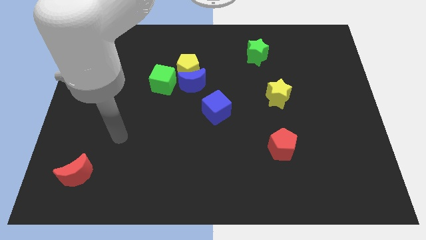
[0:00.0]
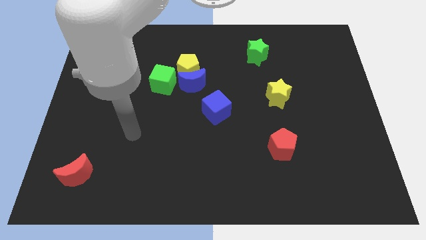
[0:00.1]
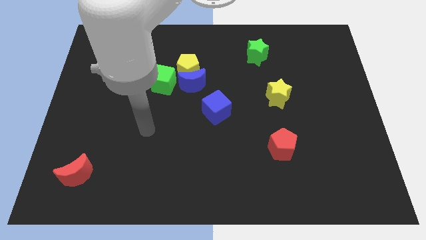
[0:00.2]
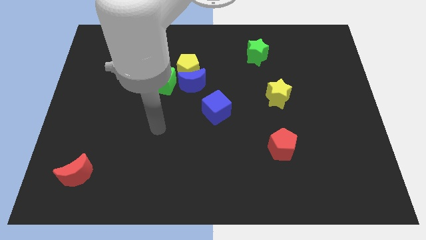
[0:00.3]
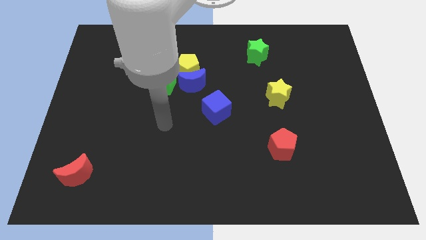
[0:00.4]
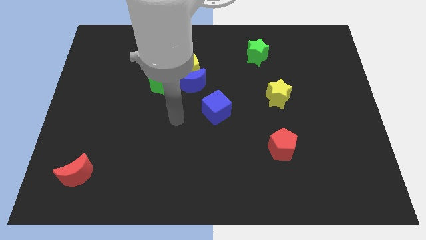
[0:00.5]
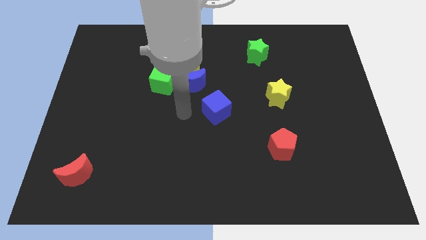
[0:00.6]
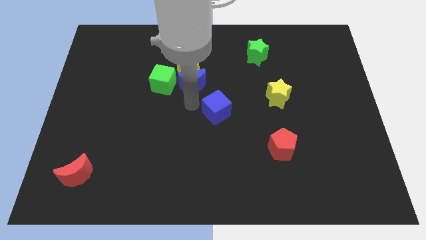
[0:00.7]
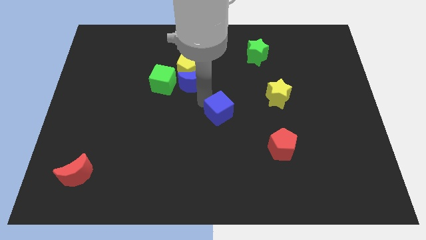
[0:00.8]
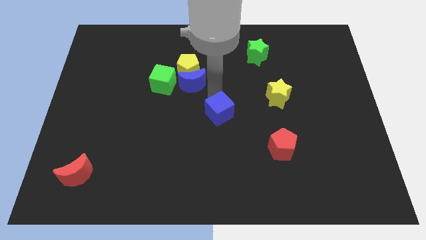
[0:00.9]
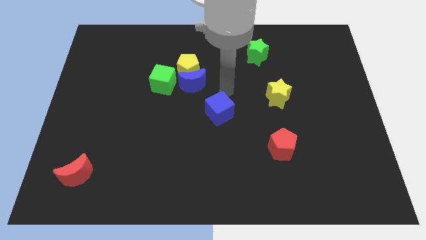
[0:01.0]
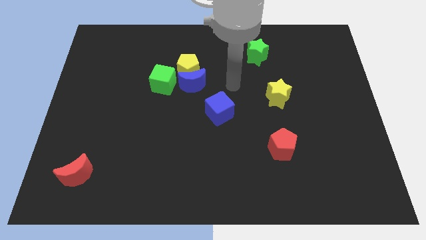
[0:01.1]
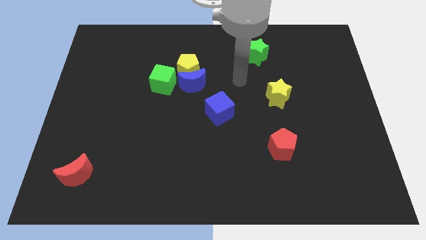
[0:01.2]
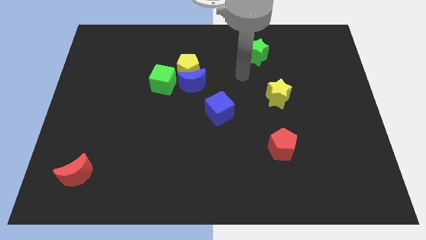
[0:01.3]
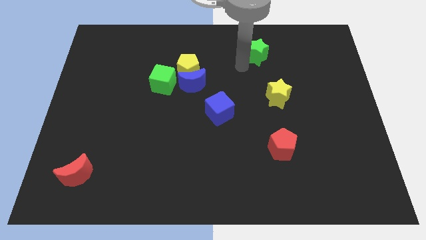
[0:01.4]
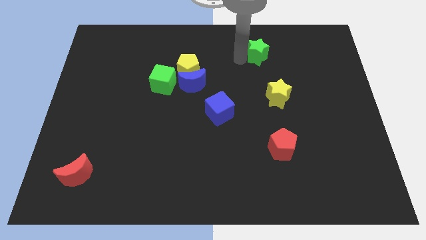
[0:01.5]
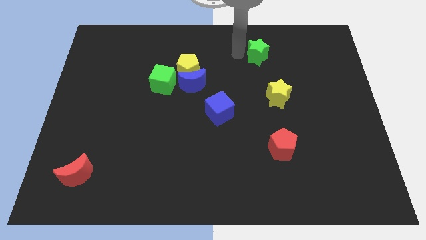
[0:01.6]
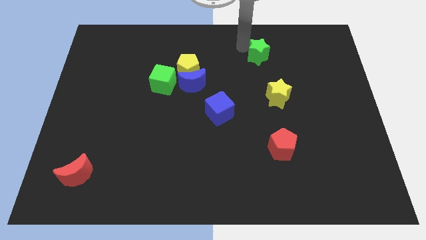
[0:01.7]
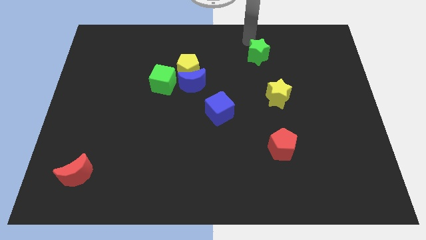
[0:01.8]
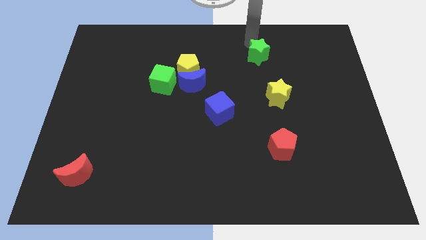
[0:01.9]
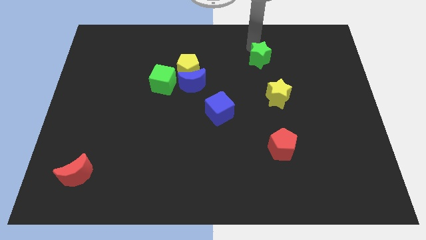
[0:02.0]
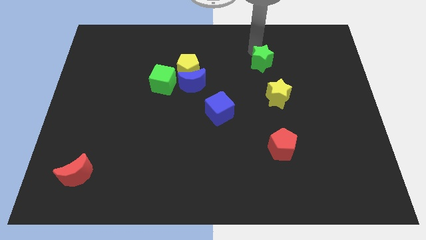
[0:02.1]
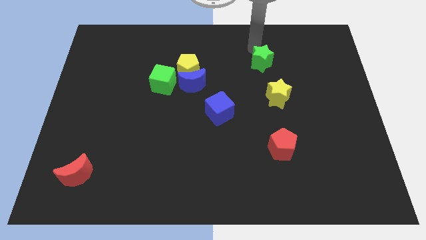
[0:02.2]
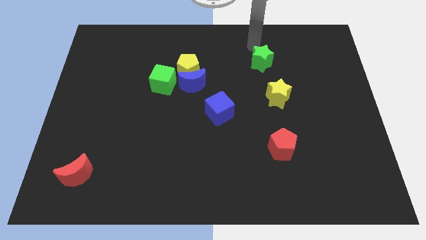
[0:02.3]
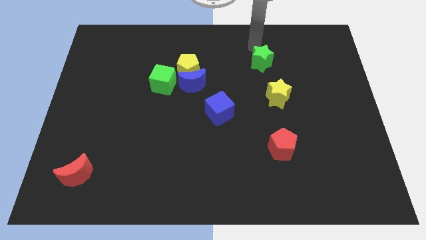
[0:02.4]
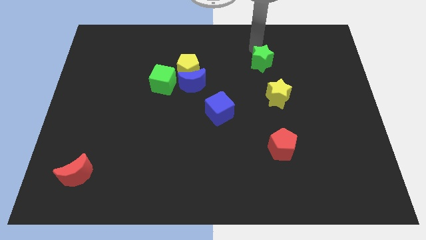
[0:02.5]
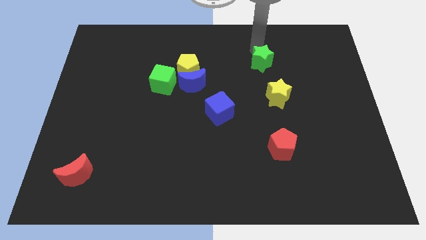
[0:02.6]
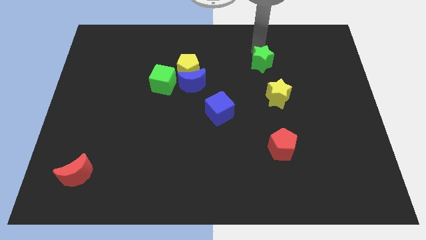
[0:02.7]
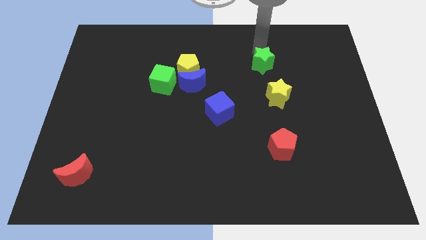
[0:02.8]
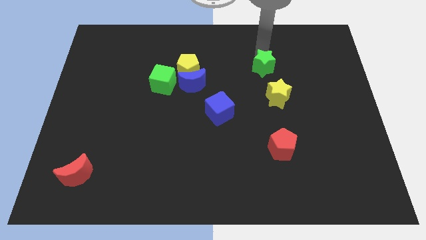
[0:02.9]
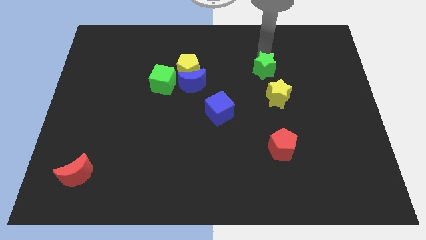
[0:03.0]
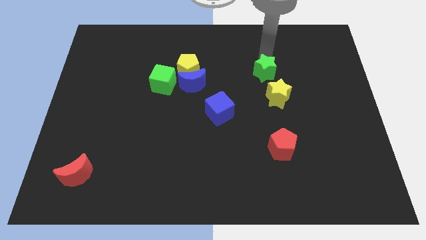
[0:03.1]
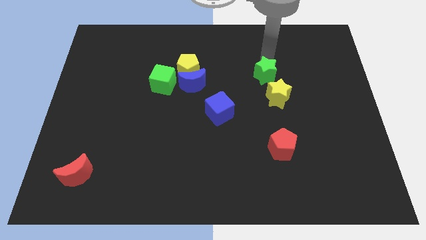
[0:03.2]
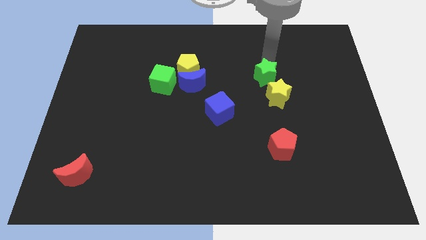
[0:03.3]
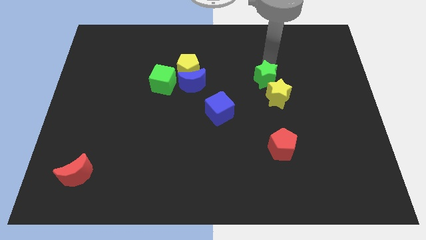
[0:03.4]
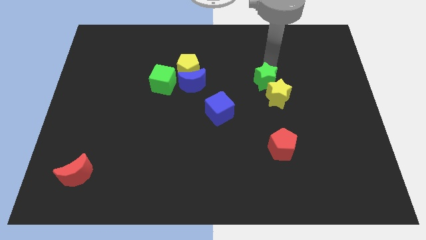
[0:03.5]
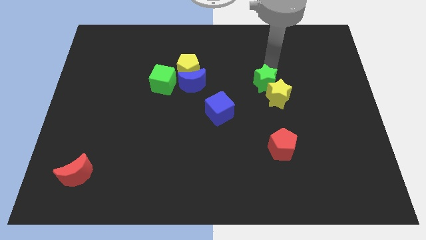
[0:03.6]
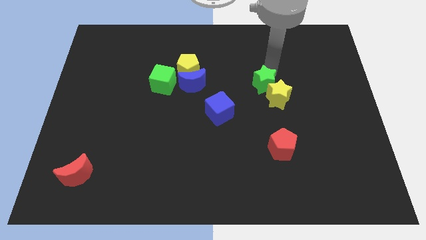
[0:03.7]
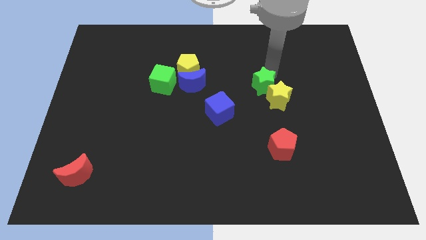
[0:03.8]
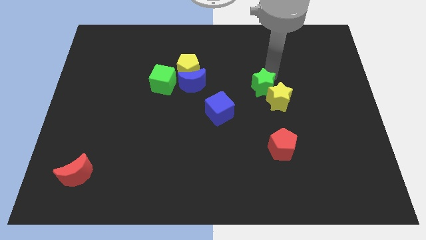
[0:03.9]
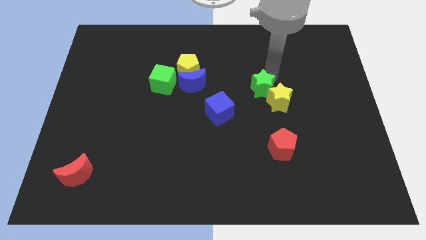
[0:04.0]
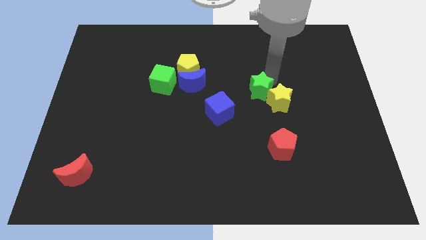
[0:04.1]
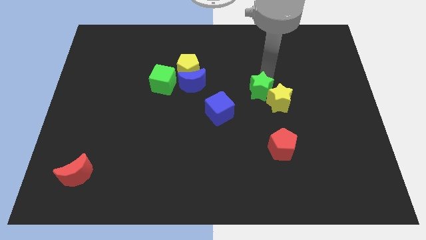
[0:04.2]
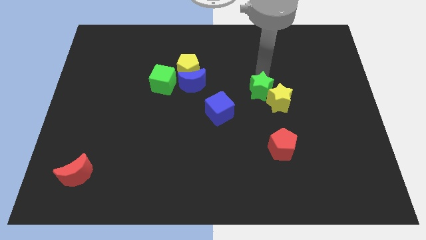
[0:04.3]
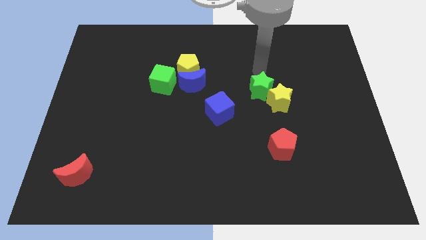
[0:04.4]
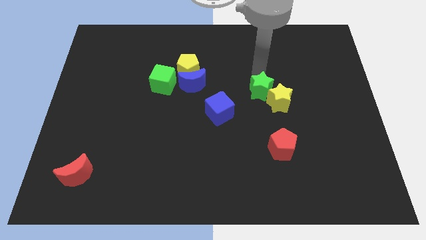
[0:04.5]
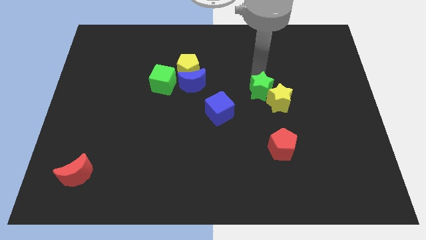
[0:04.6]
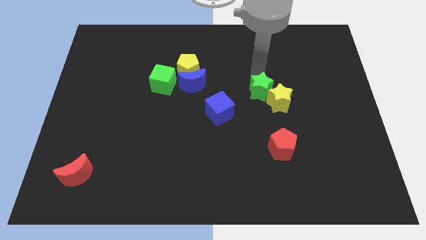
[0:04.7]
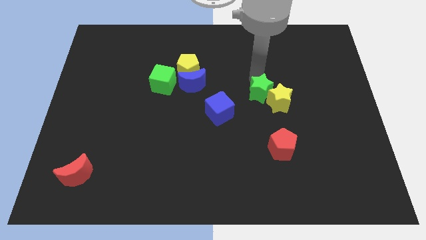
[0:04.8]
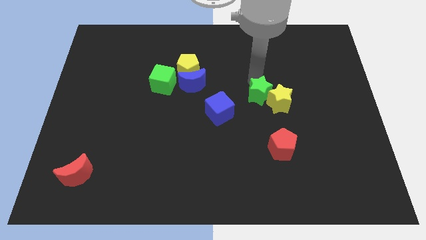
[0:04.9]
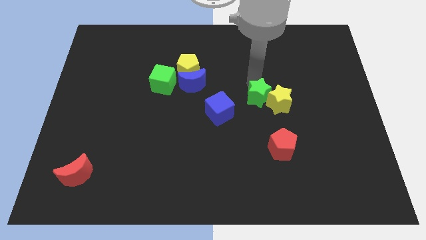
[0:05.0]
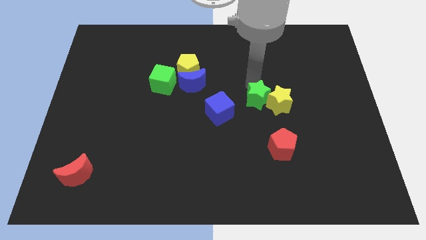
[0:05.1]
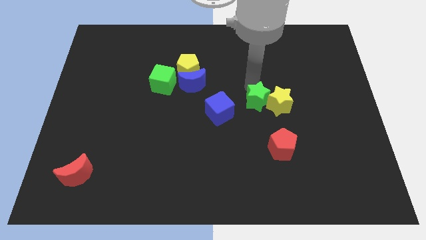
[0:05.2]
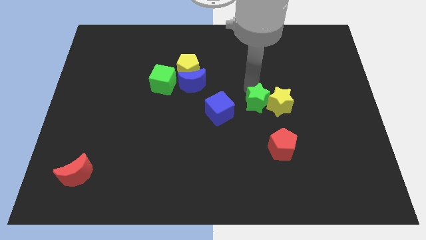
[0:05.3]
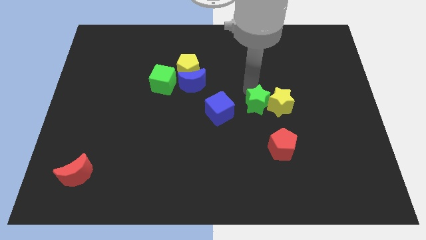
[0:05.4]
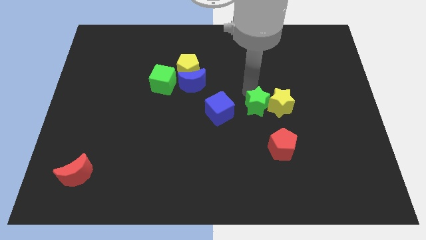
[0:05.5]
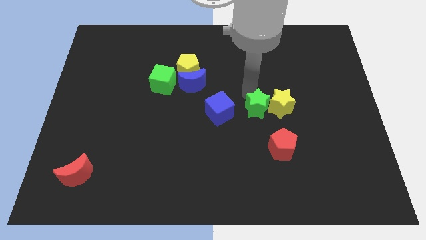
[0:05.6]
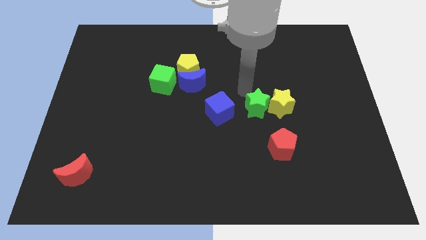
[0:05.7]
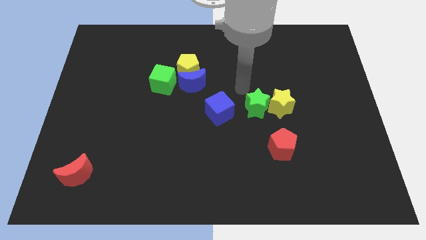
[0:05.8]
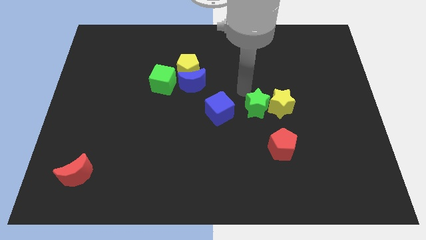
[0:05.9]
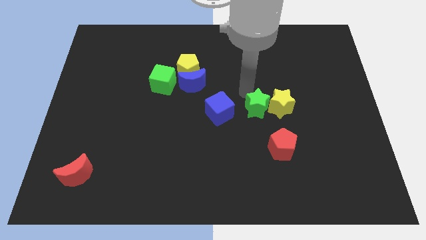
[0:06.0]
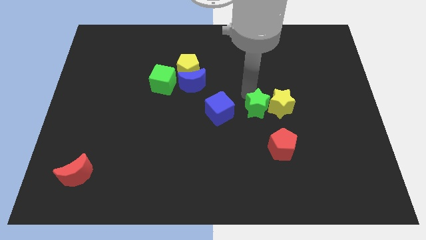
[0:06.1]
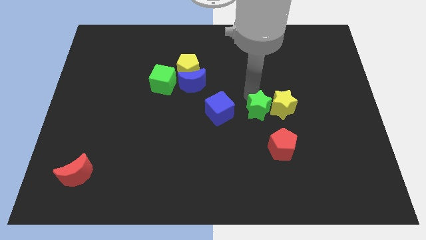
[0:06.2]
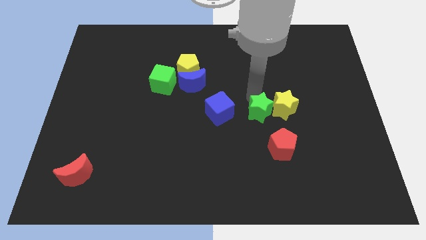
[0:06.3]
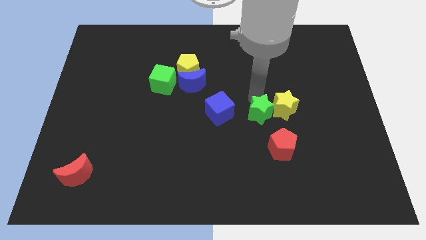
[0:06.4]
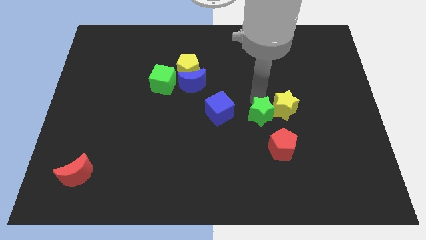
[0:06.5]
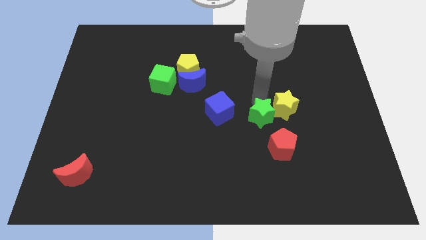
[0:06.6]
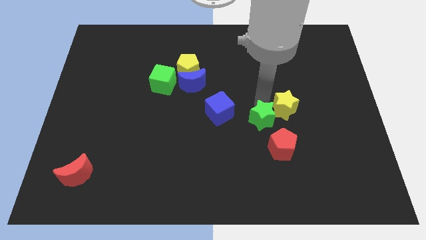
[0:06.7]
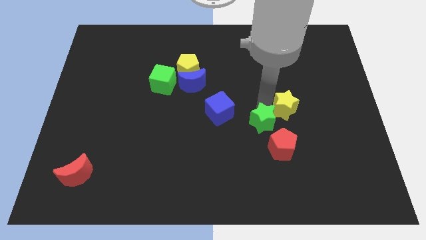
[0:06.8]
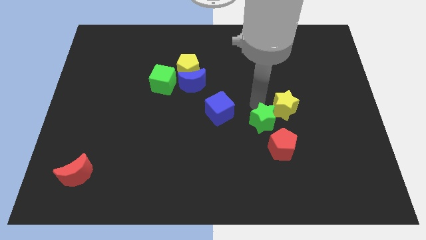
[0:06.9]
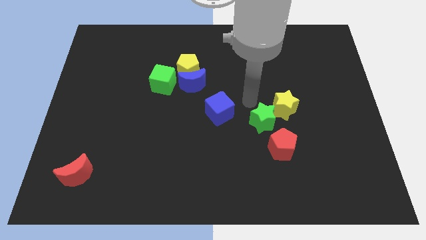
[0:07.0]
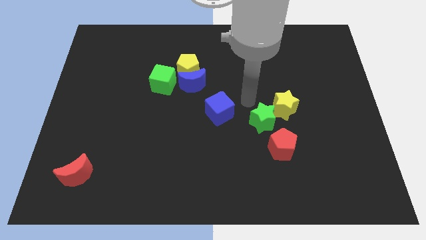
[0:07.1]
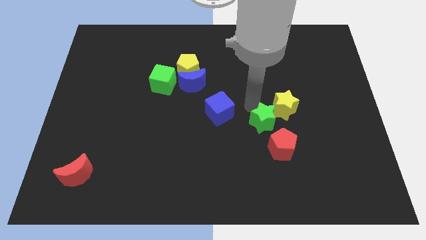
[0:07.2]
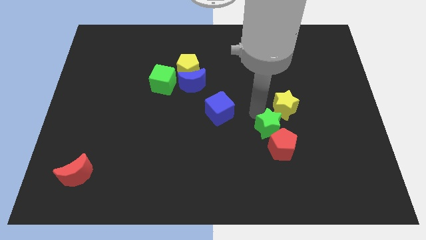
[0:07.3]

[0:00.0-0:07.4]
move the green star to the red pentagon
